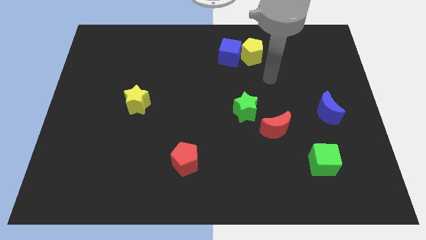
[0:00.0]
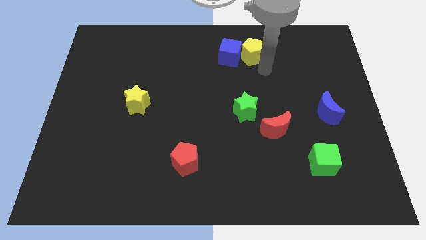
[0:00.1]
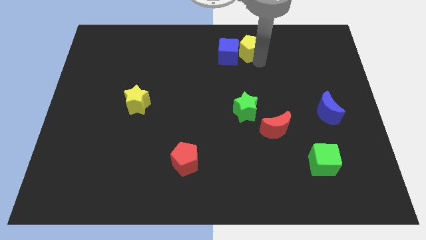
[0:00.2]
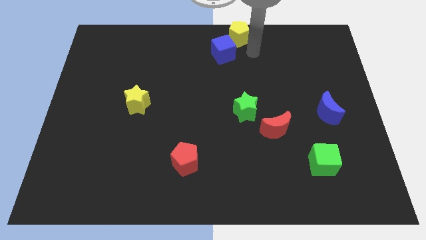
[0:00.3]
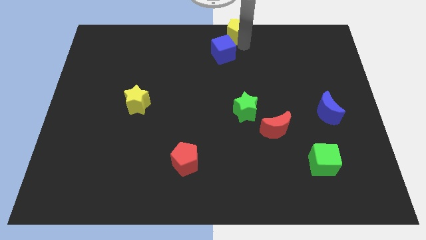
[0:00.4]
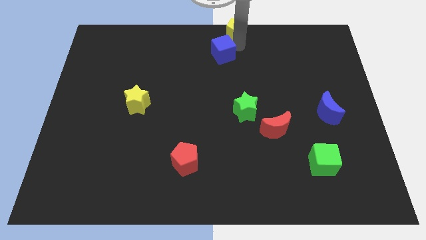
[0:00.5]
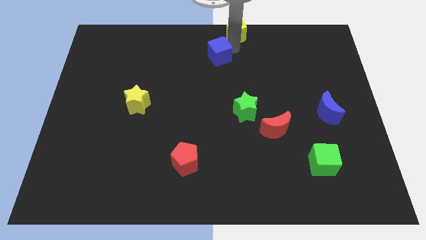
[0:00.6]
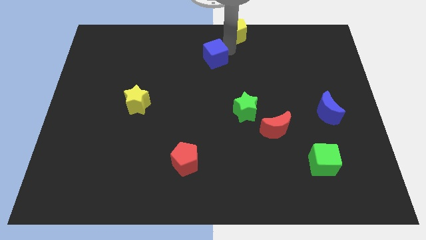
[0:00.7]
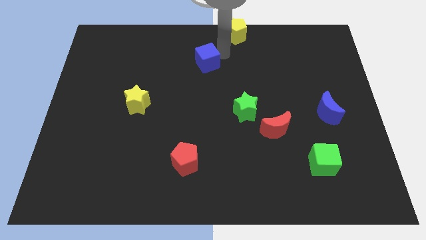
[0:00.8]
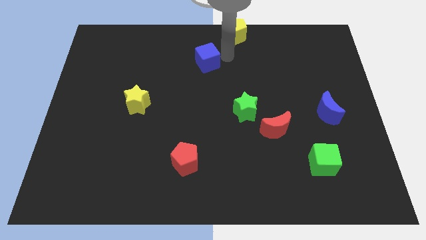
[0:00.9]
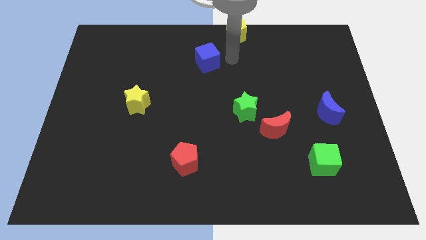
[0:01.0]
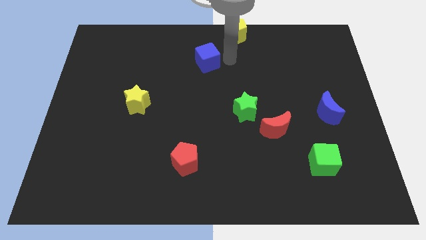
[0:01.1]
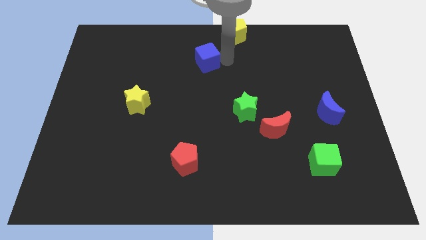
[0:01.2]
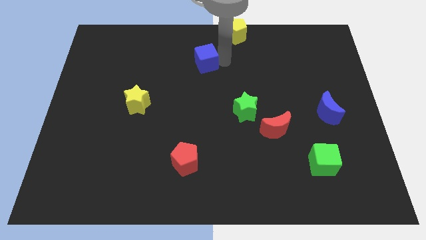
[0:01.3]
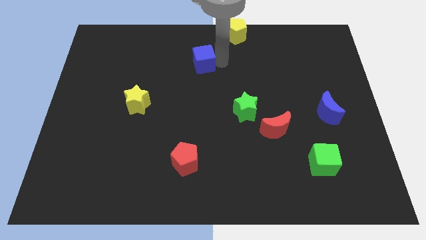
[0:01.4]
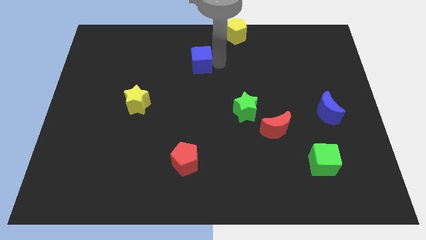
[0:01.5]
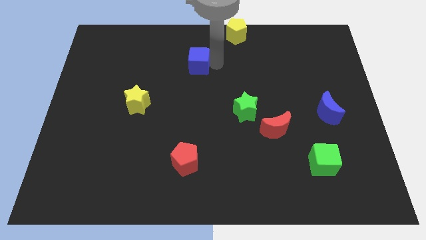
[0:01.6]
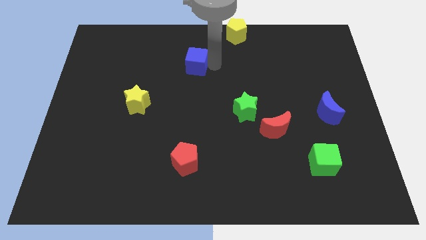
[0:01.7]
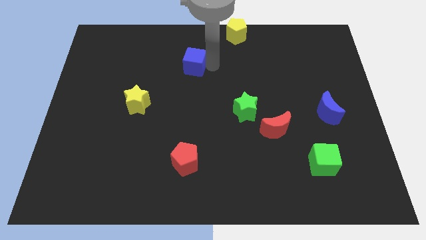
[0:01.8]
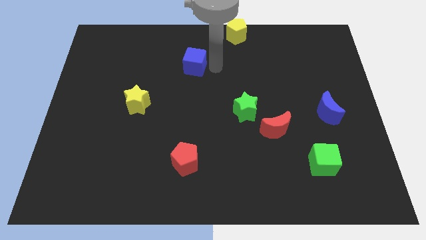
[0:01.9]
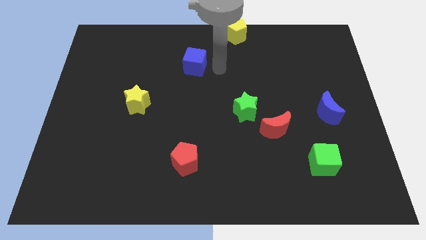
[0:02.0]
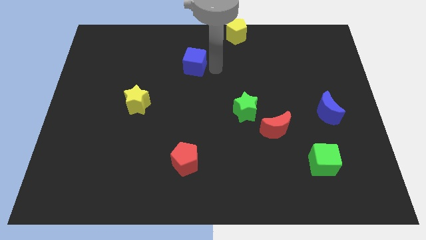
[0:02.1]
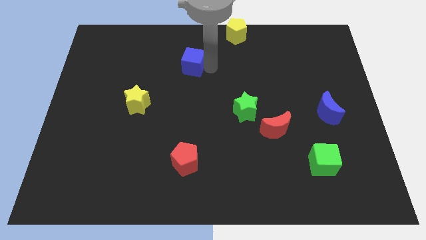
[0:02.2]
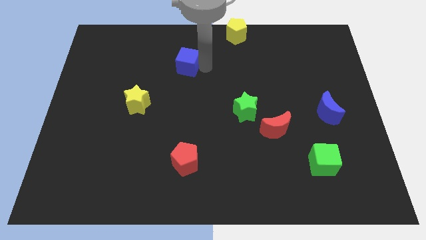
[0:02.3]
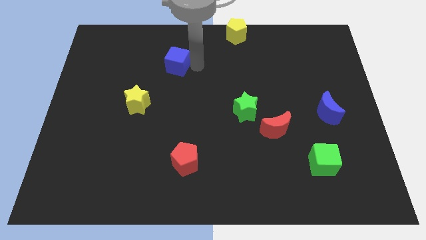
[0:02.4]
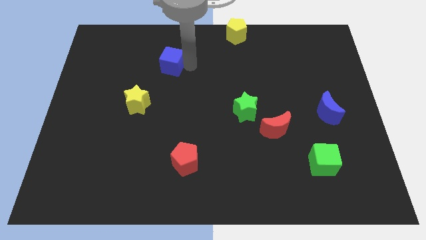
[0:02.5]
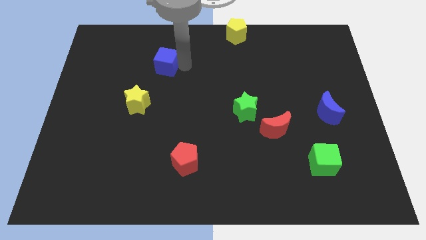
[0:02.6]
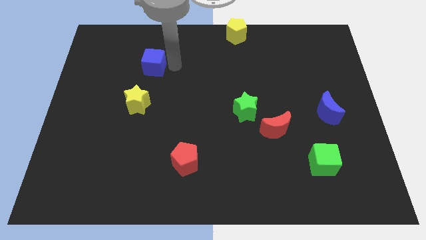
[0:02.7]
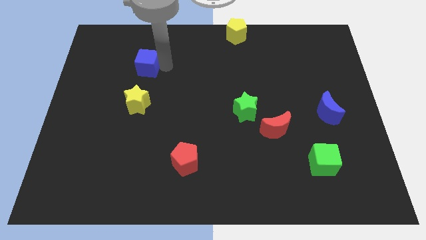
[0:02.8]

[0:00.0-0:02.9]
slide the blue cube to the left

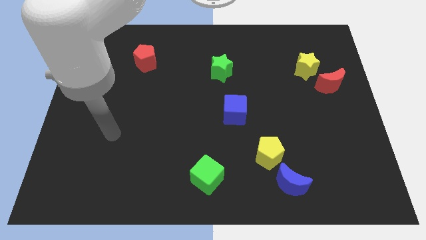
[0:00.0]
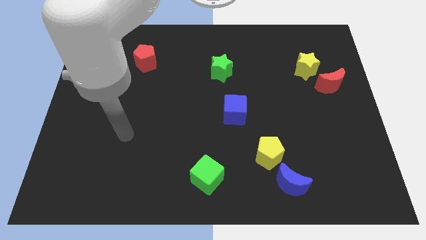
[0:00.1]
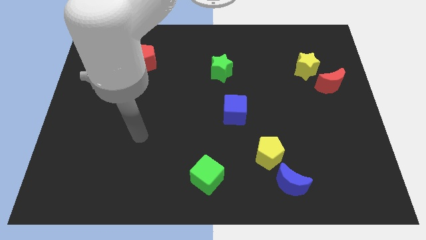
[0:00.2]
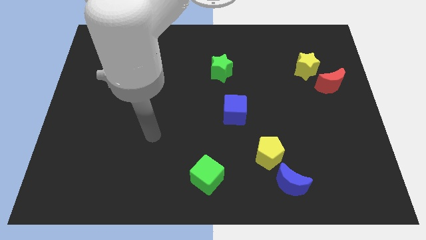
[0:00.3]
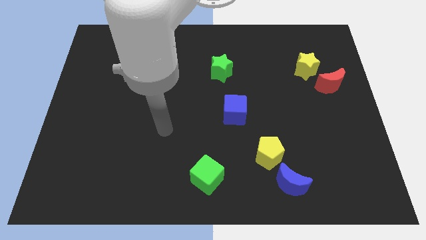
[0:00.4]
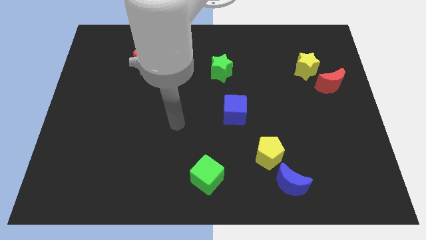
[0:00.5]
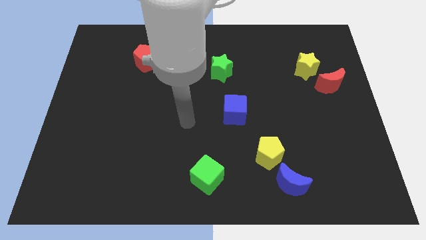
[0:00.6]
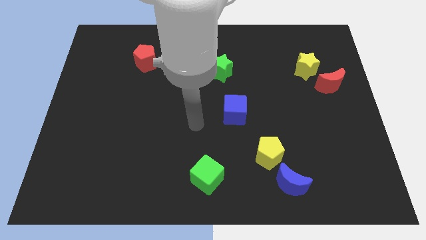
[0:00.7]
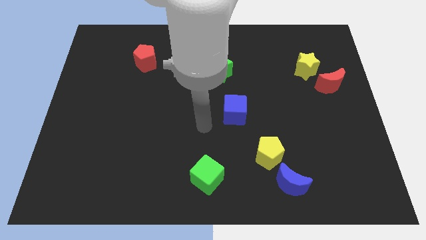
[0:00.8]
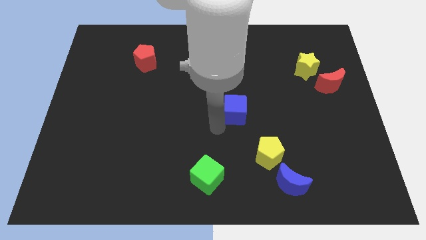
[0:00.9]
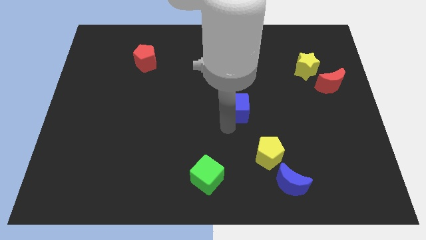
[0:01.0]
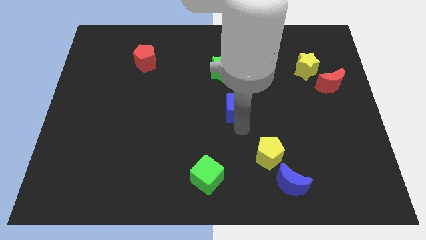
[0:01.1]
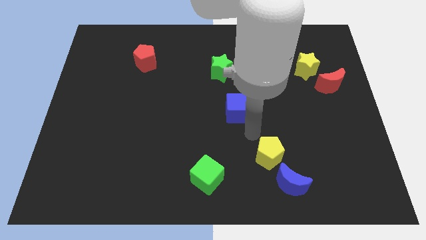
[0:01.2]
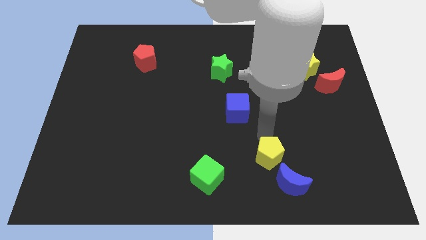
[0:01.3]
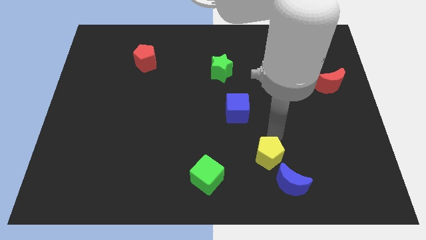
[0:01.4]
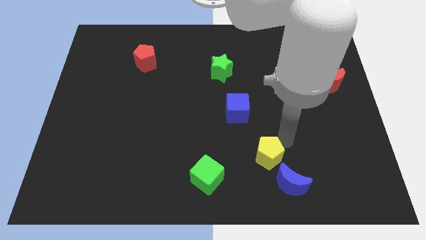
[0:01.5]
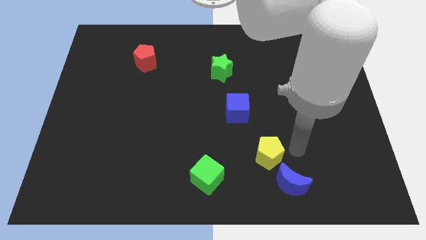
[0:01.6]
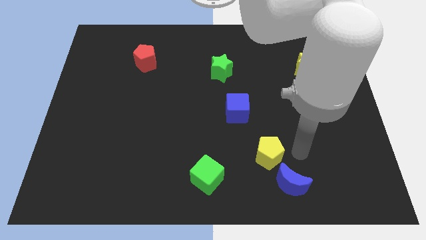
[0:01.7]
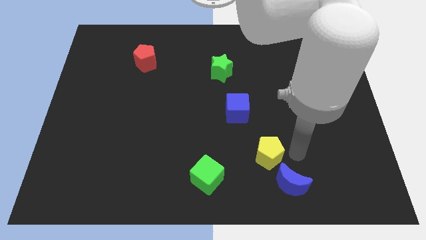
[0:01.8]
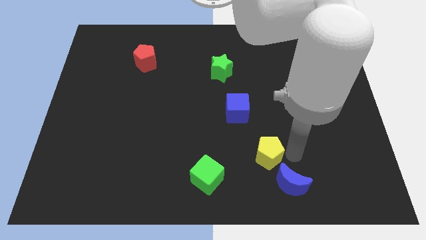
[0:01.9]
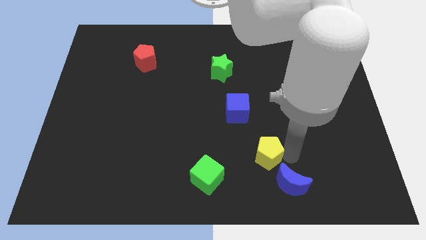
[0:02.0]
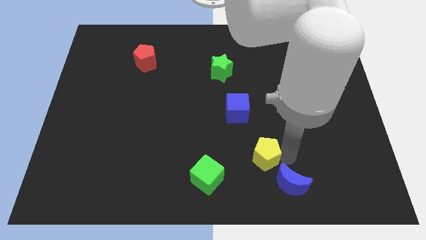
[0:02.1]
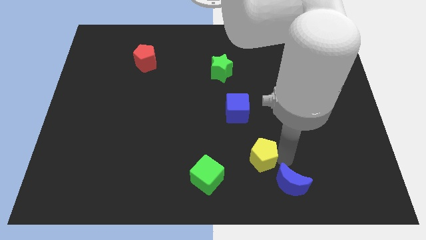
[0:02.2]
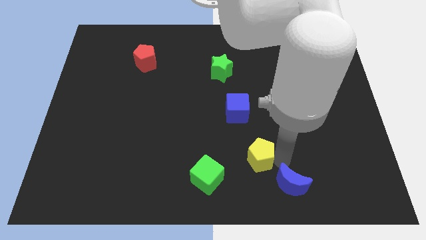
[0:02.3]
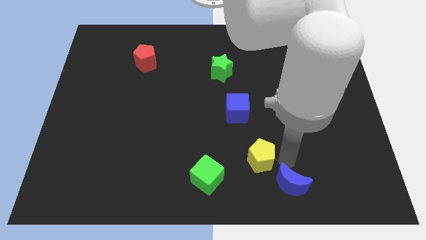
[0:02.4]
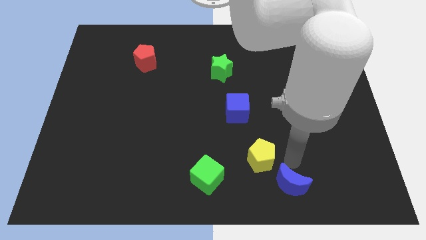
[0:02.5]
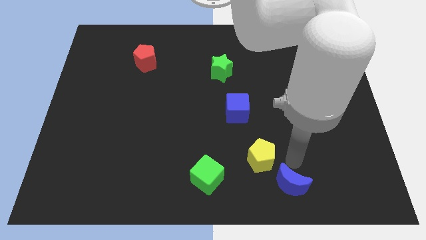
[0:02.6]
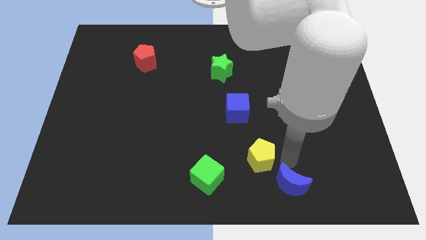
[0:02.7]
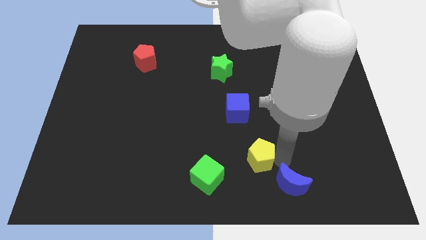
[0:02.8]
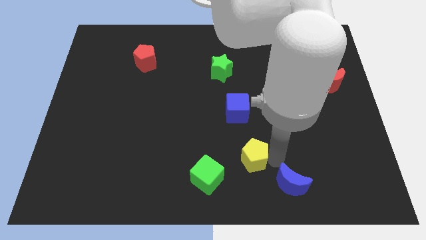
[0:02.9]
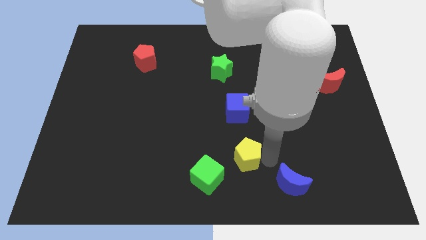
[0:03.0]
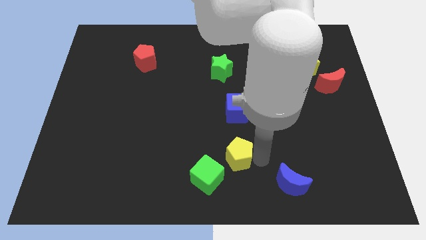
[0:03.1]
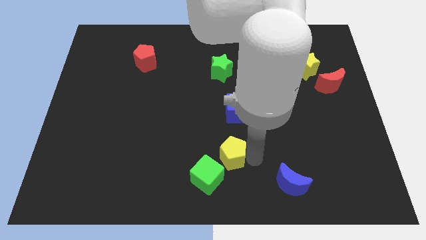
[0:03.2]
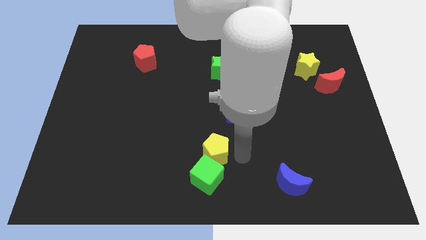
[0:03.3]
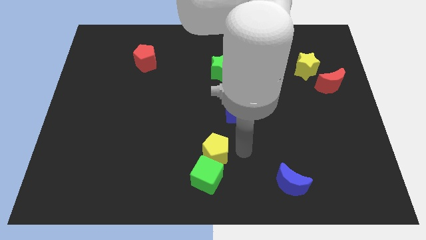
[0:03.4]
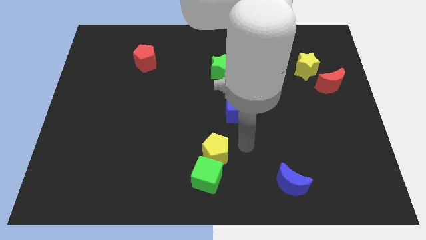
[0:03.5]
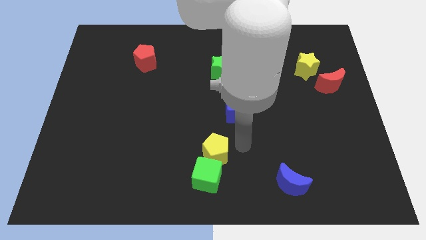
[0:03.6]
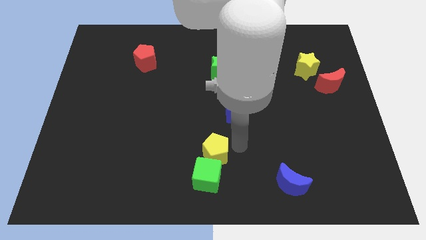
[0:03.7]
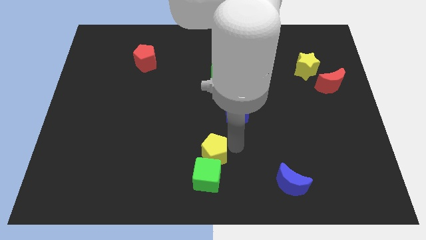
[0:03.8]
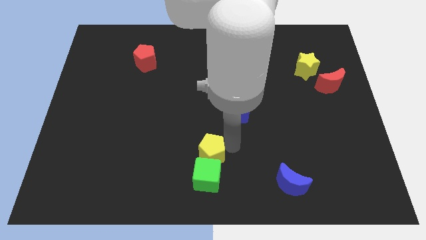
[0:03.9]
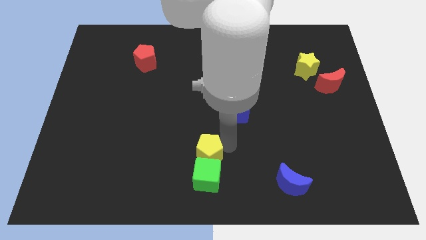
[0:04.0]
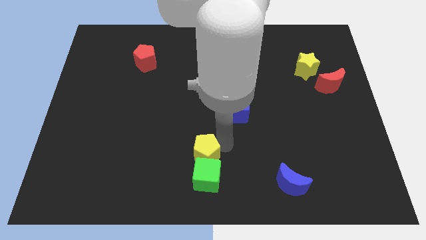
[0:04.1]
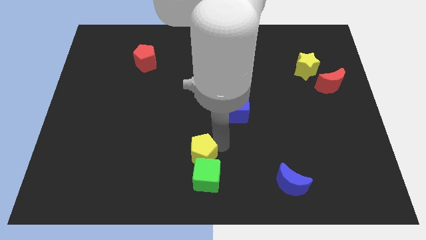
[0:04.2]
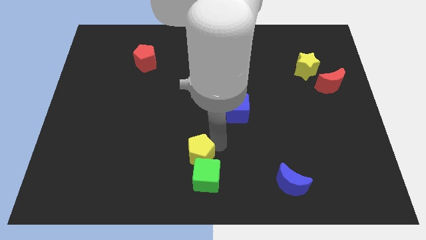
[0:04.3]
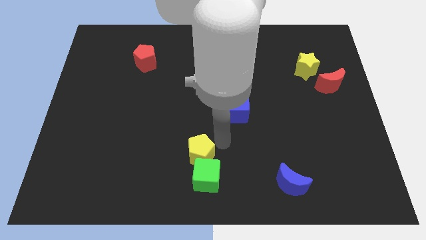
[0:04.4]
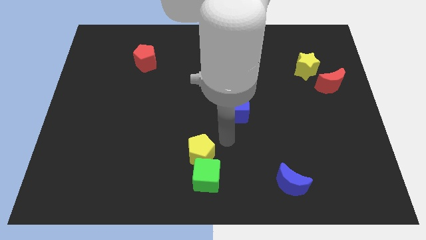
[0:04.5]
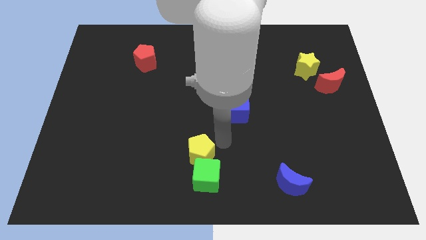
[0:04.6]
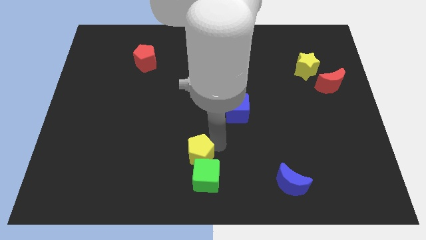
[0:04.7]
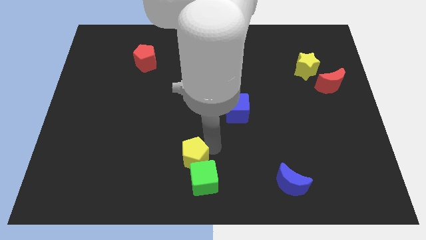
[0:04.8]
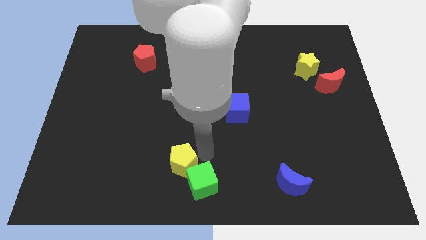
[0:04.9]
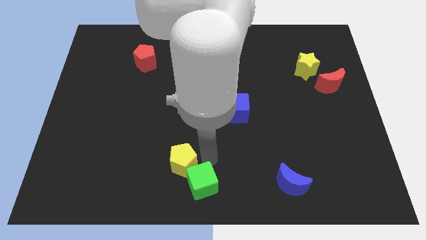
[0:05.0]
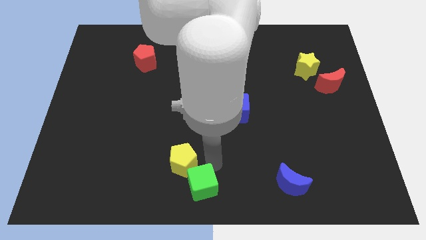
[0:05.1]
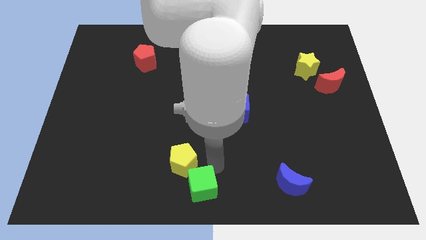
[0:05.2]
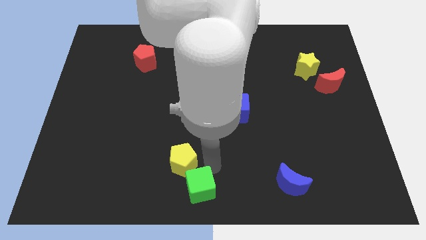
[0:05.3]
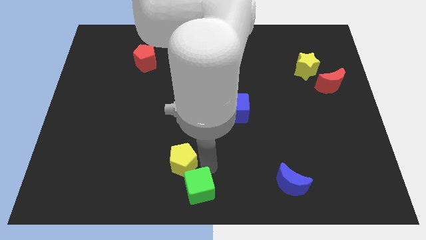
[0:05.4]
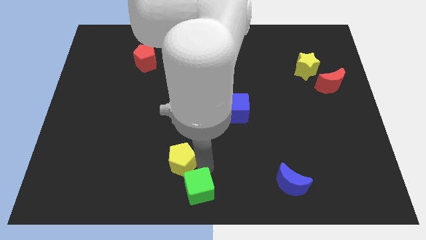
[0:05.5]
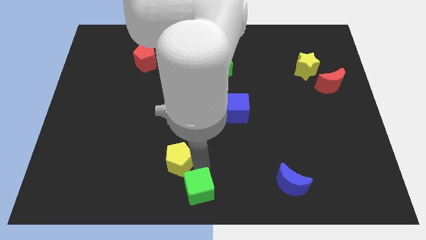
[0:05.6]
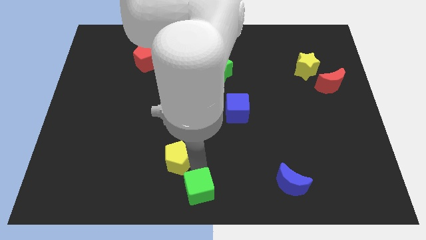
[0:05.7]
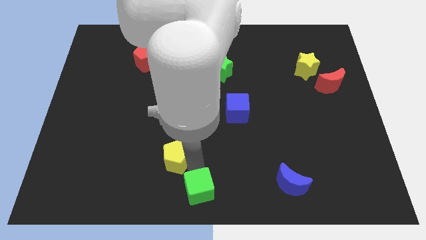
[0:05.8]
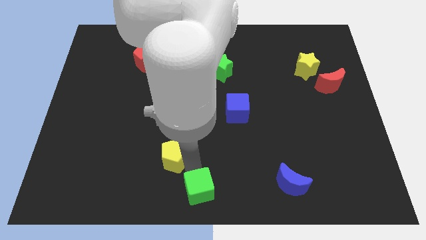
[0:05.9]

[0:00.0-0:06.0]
push the yellow pentagon left
